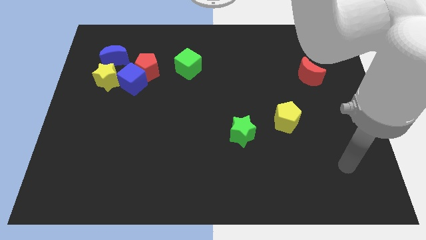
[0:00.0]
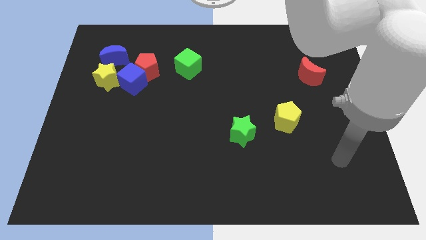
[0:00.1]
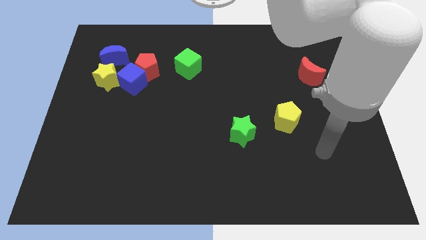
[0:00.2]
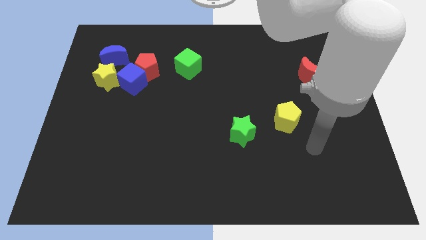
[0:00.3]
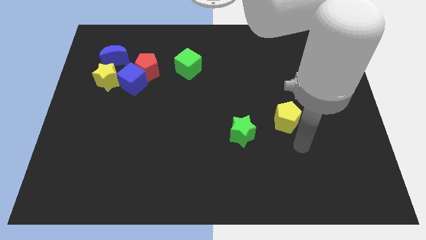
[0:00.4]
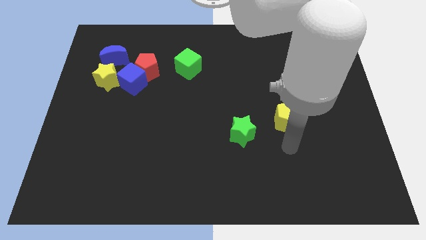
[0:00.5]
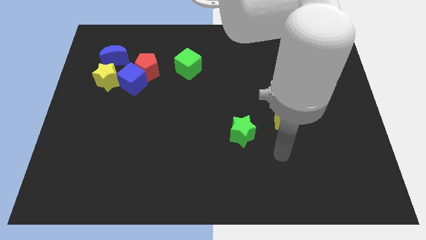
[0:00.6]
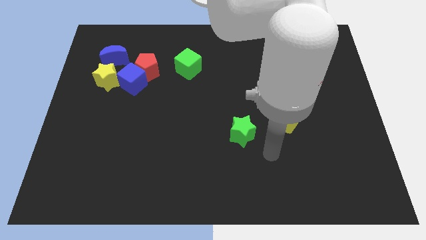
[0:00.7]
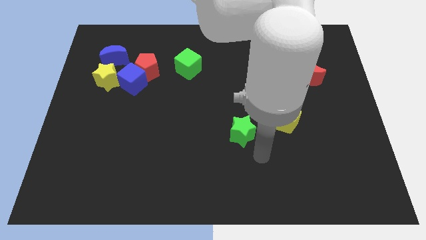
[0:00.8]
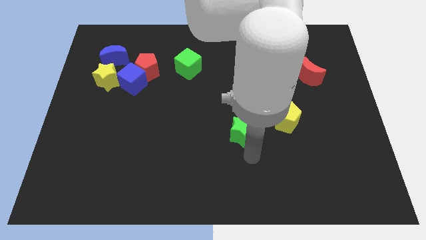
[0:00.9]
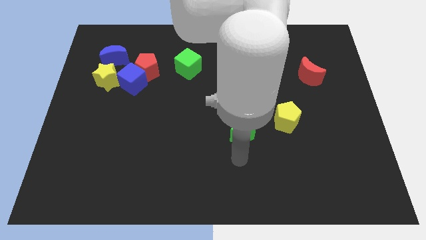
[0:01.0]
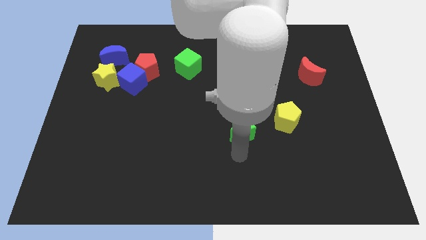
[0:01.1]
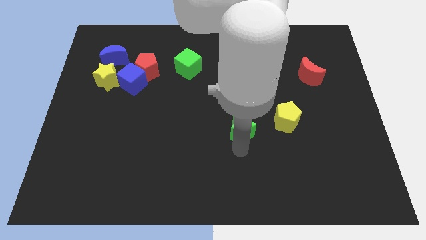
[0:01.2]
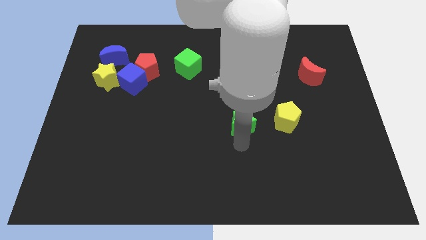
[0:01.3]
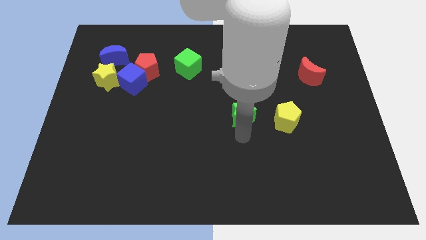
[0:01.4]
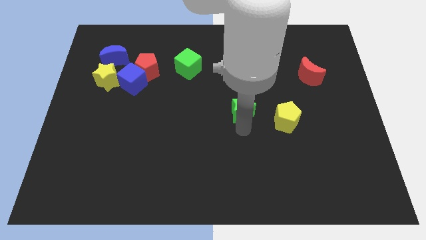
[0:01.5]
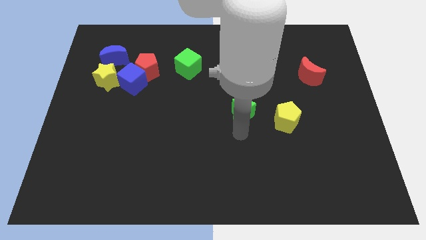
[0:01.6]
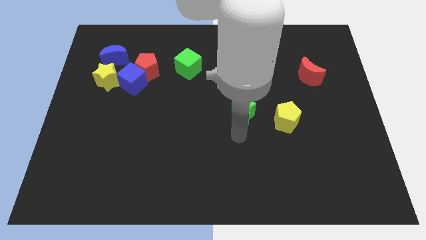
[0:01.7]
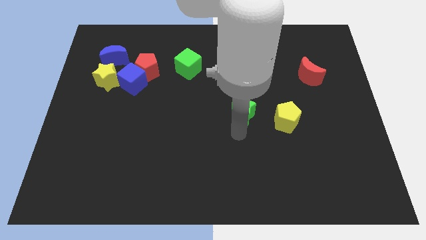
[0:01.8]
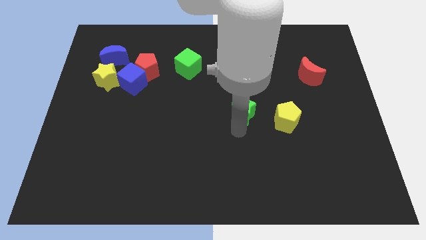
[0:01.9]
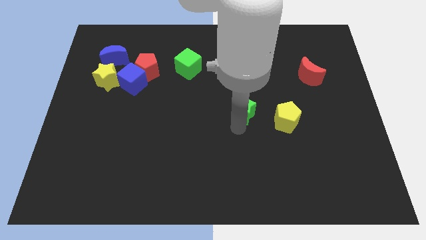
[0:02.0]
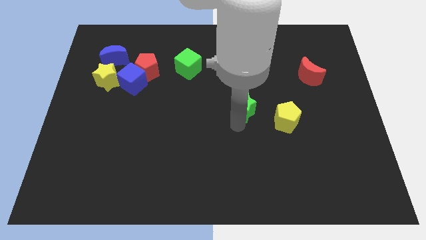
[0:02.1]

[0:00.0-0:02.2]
slide the green star upwards a little bit

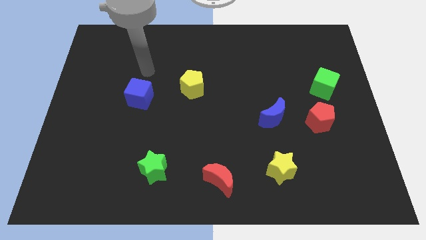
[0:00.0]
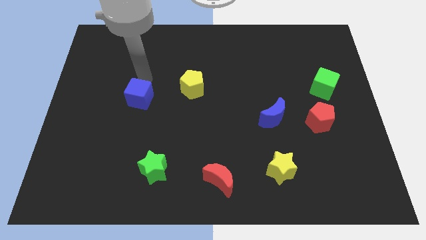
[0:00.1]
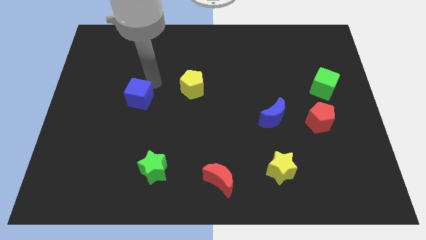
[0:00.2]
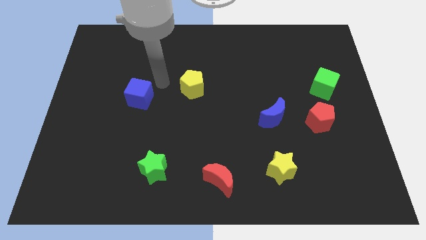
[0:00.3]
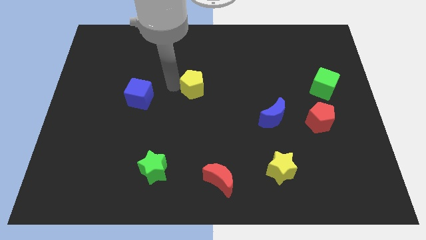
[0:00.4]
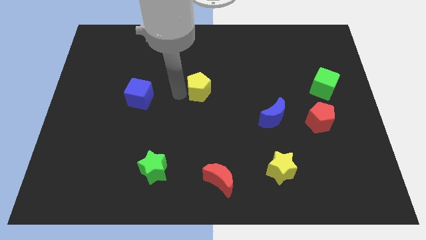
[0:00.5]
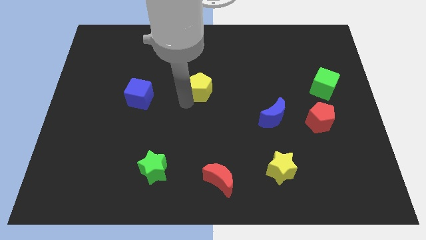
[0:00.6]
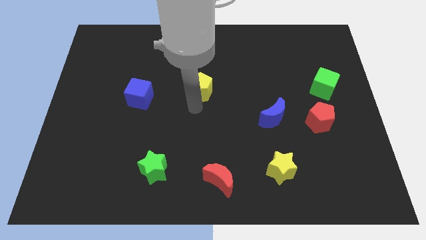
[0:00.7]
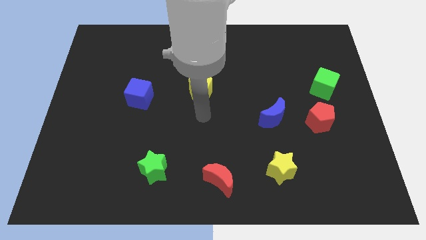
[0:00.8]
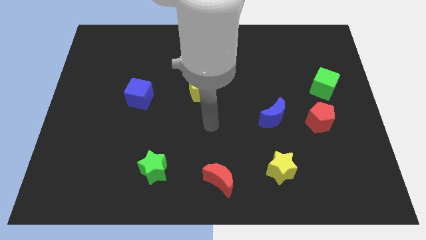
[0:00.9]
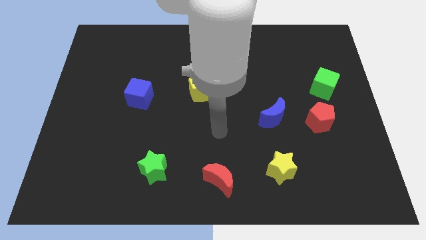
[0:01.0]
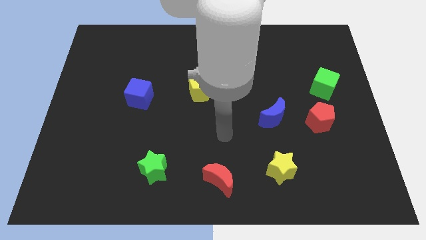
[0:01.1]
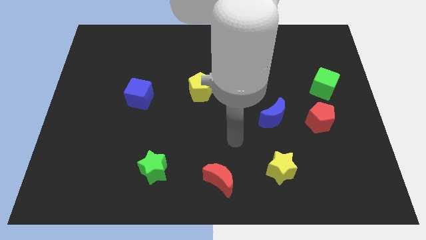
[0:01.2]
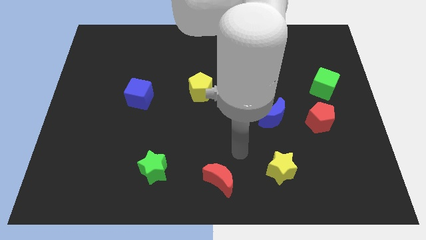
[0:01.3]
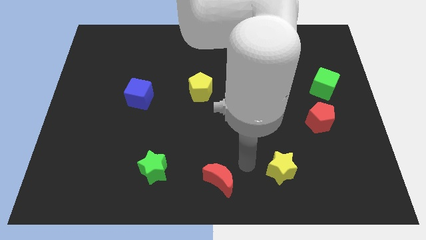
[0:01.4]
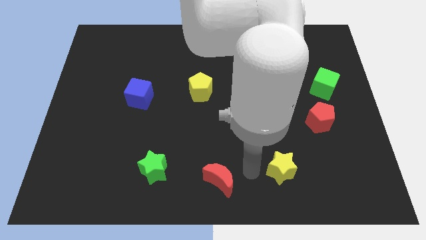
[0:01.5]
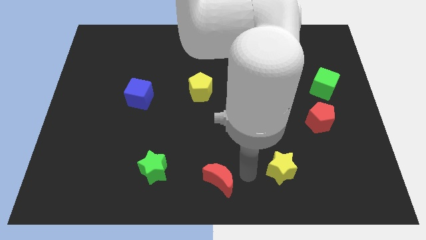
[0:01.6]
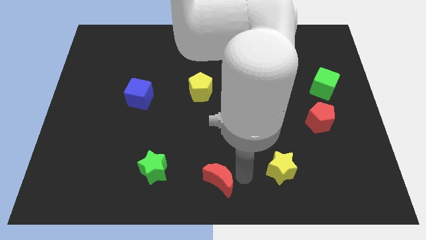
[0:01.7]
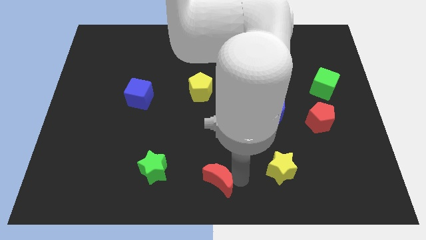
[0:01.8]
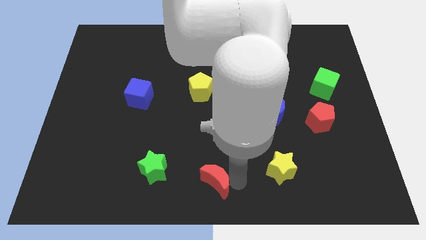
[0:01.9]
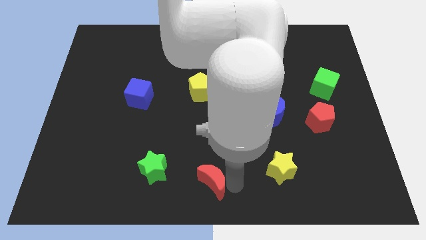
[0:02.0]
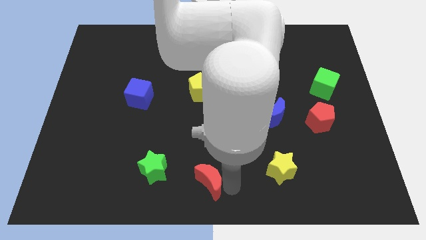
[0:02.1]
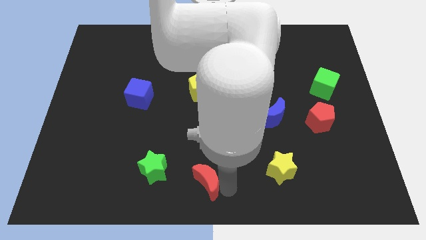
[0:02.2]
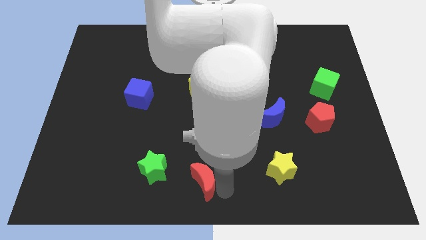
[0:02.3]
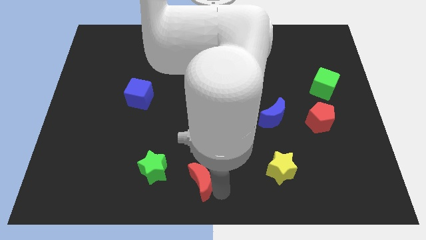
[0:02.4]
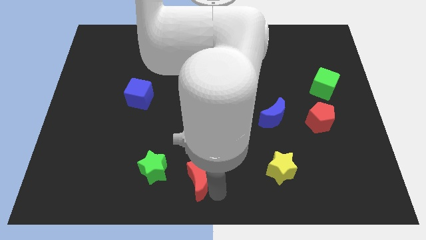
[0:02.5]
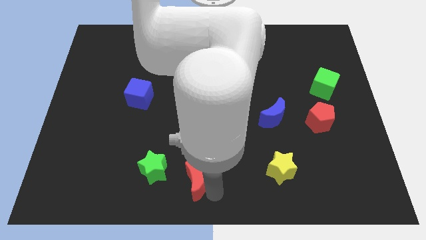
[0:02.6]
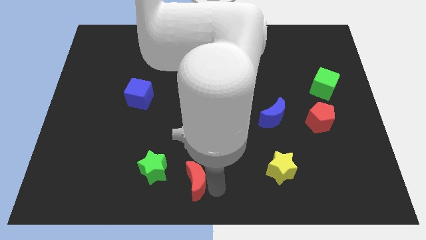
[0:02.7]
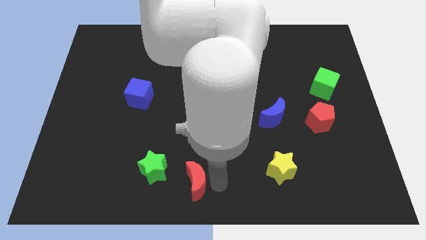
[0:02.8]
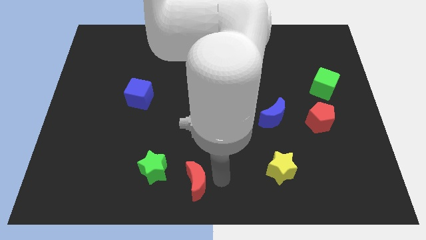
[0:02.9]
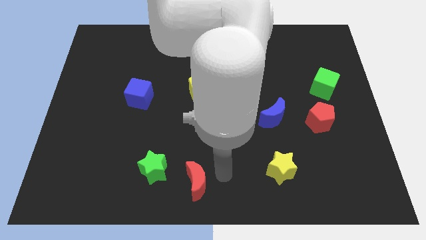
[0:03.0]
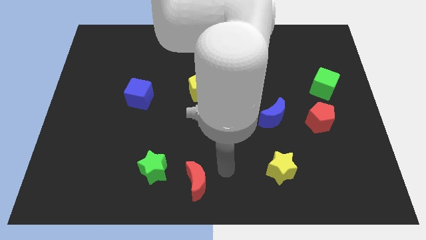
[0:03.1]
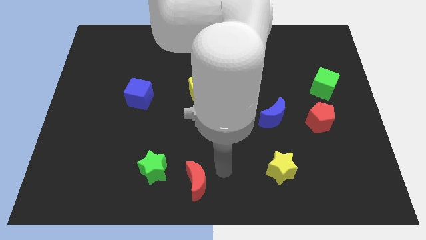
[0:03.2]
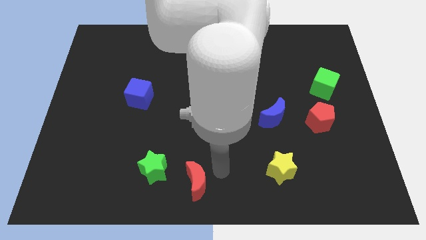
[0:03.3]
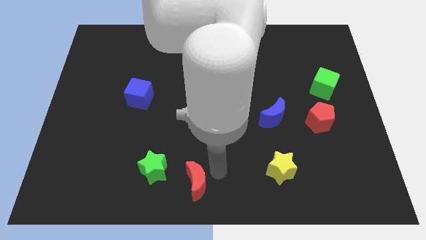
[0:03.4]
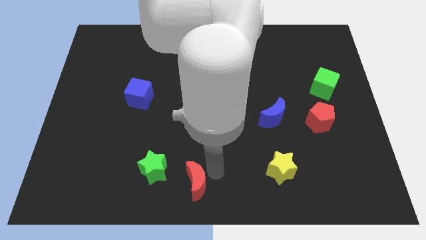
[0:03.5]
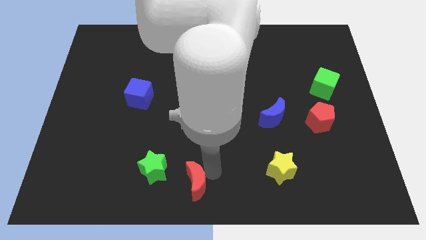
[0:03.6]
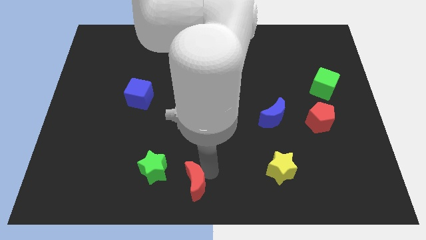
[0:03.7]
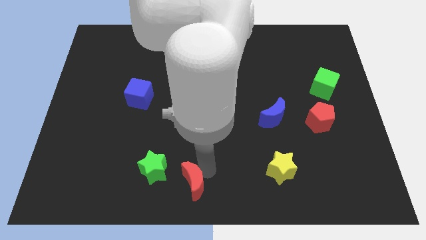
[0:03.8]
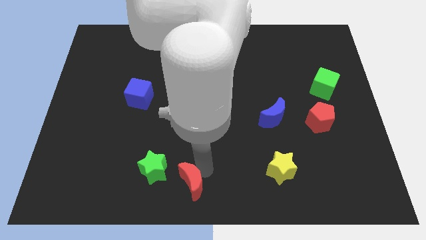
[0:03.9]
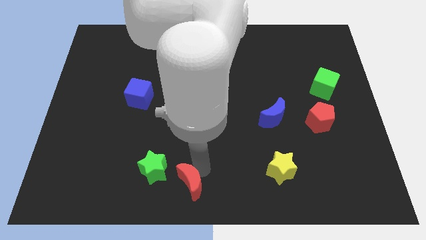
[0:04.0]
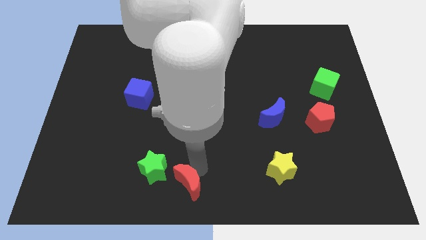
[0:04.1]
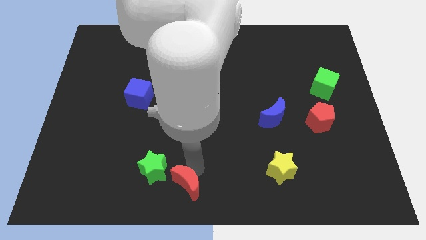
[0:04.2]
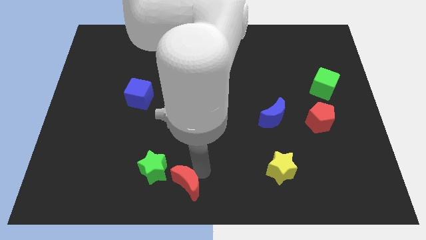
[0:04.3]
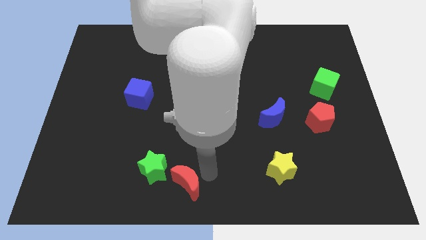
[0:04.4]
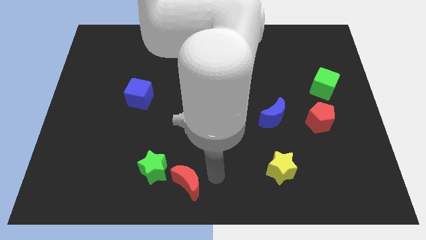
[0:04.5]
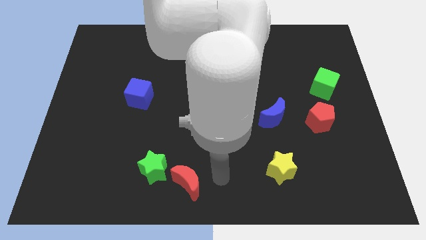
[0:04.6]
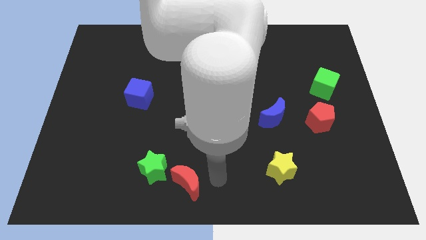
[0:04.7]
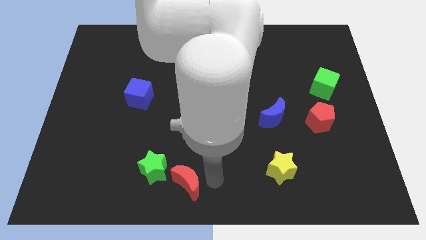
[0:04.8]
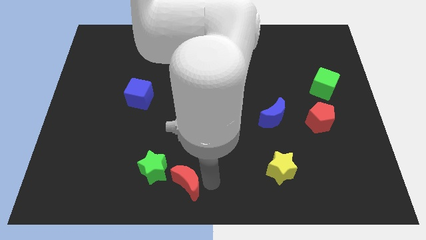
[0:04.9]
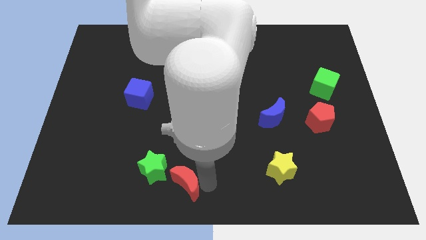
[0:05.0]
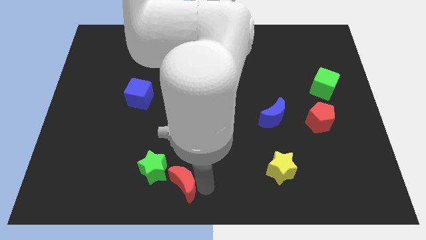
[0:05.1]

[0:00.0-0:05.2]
slightly push the red moon to the left

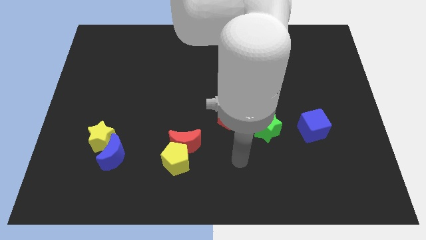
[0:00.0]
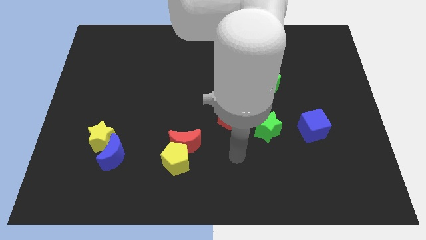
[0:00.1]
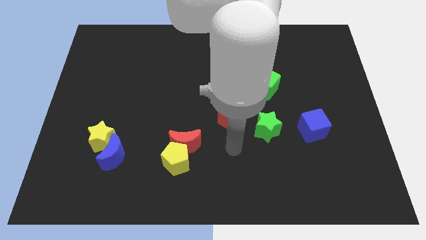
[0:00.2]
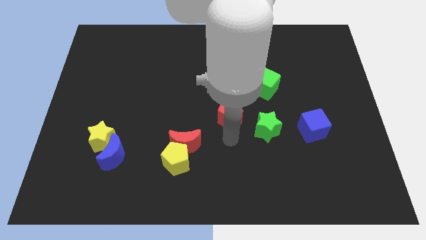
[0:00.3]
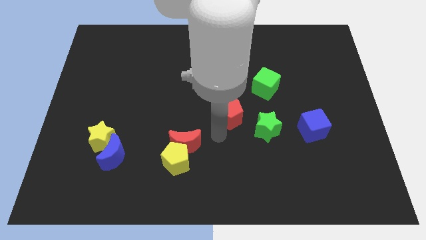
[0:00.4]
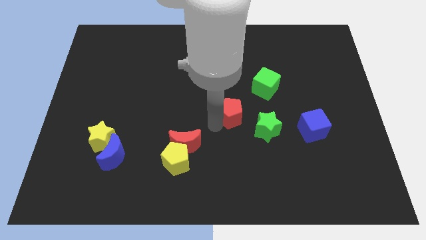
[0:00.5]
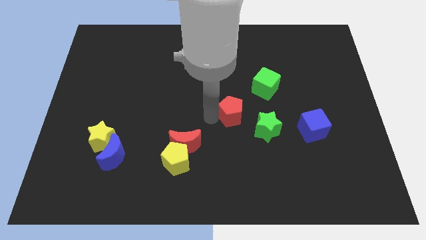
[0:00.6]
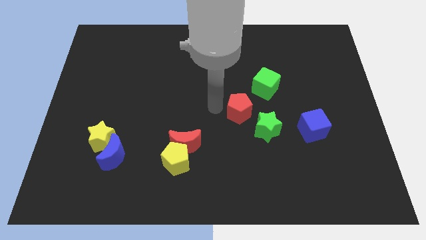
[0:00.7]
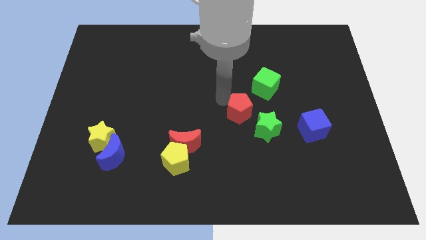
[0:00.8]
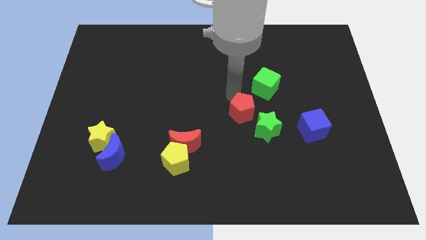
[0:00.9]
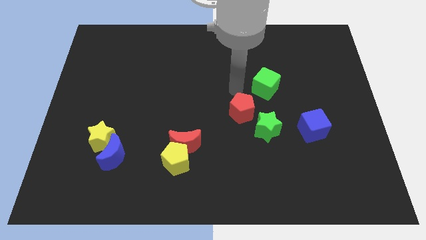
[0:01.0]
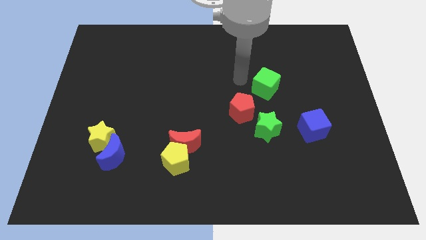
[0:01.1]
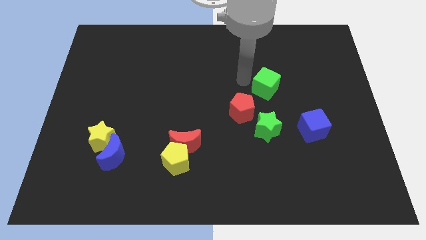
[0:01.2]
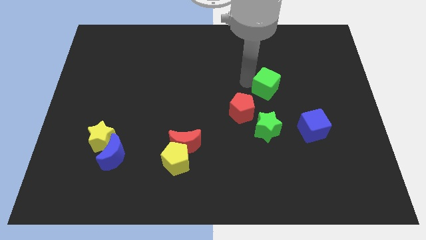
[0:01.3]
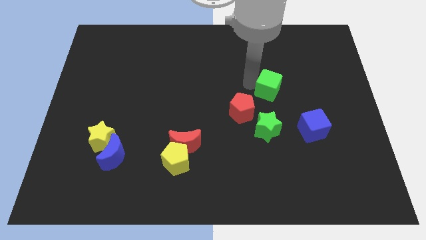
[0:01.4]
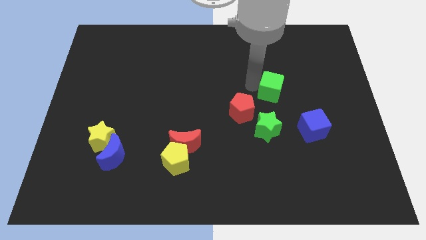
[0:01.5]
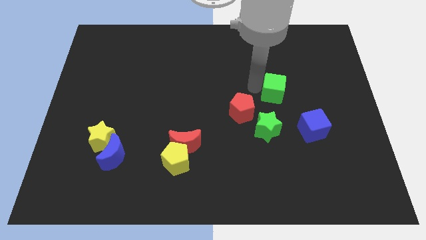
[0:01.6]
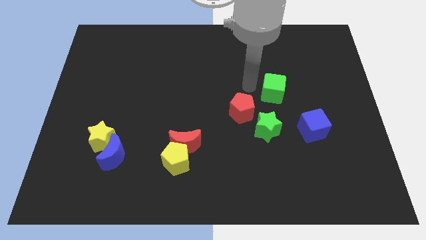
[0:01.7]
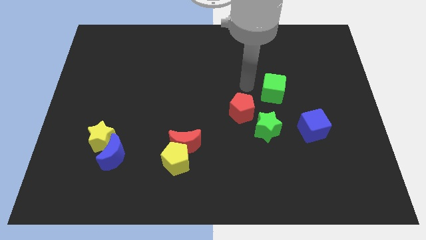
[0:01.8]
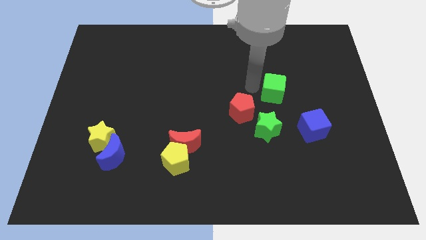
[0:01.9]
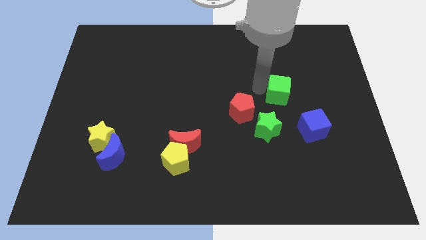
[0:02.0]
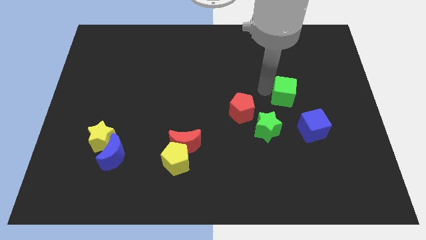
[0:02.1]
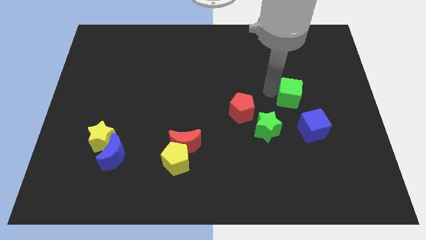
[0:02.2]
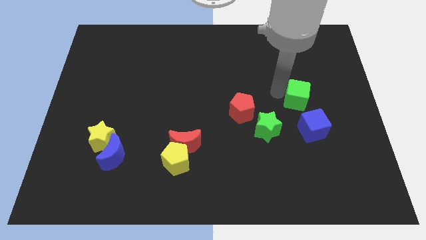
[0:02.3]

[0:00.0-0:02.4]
move the green cube slightly downwards and to the right diagonally
